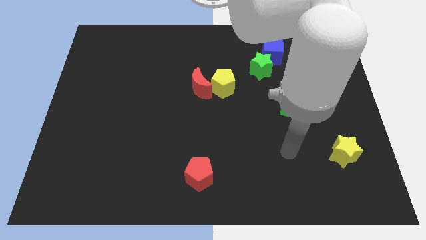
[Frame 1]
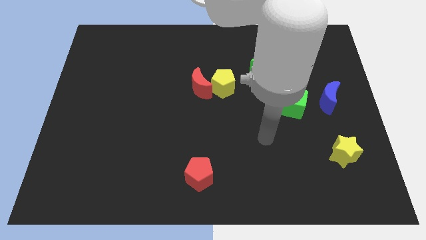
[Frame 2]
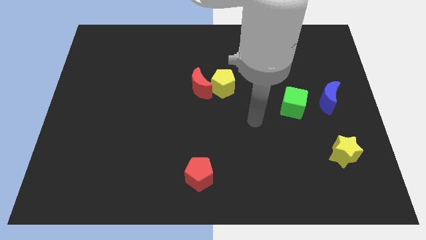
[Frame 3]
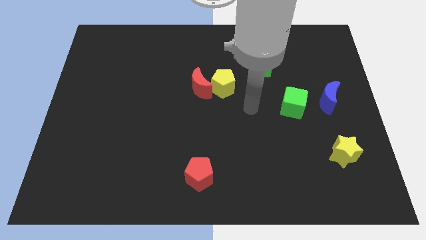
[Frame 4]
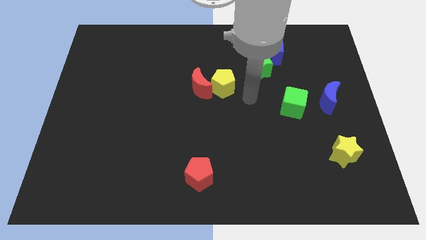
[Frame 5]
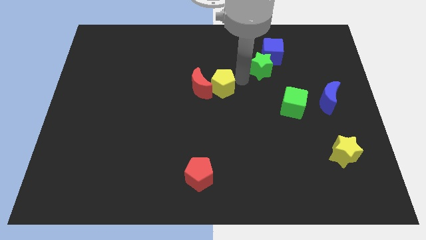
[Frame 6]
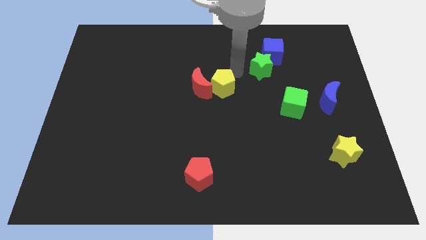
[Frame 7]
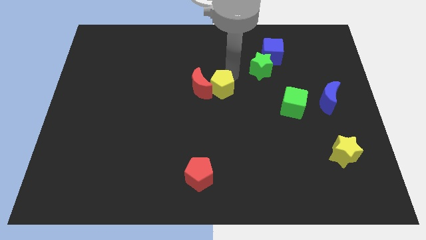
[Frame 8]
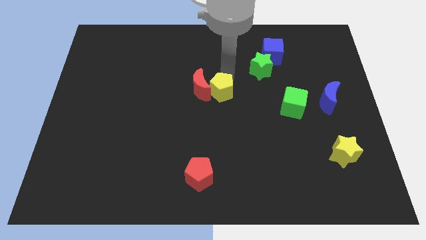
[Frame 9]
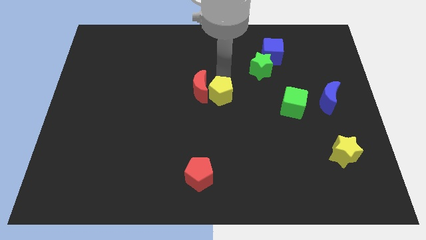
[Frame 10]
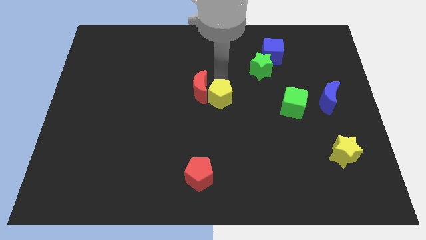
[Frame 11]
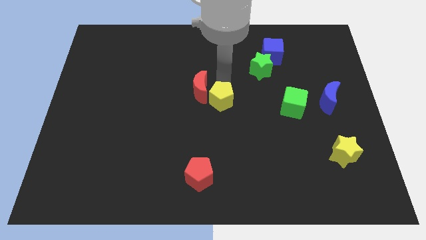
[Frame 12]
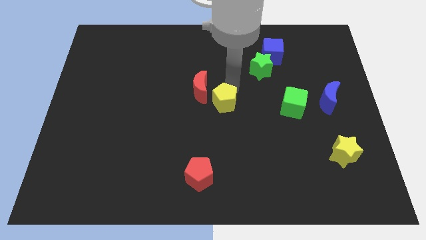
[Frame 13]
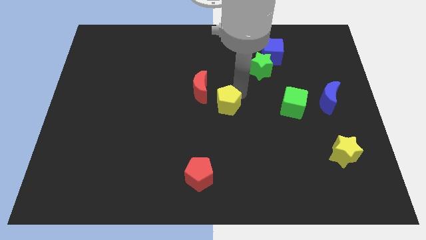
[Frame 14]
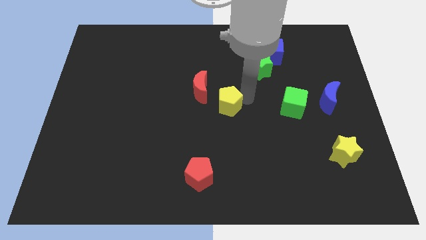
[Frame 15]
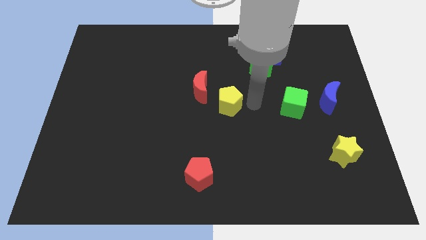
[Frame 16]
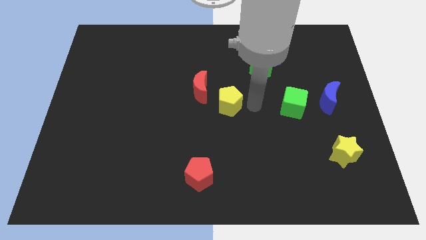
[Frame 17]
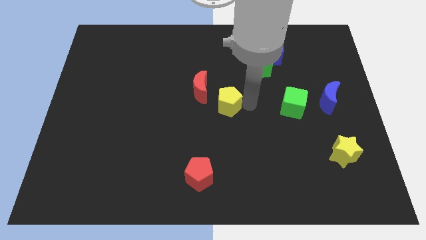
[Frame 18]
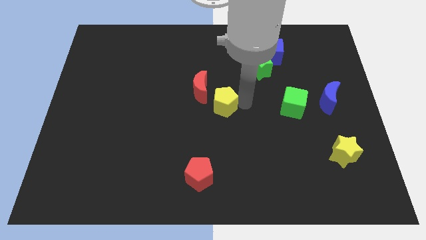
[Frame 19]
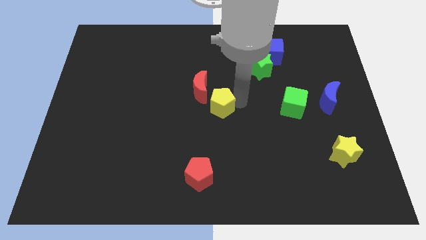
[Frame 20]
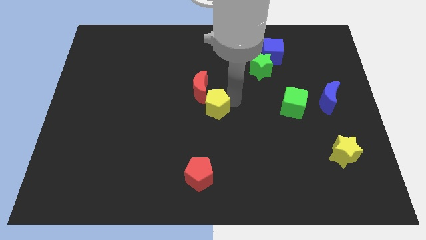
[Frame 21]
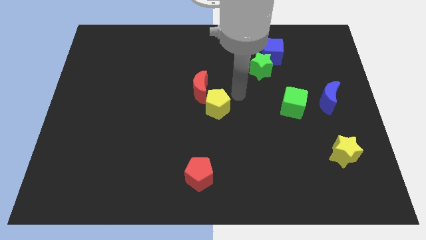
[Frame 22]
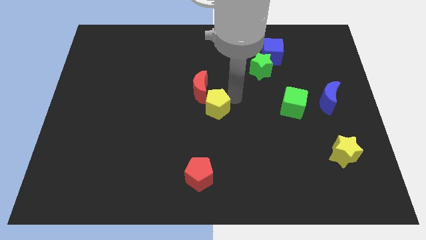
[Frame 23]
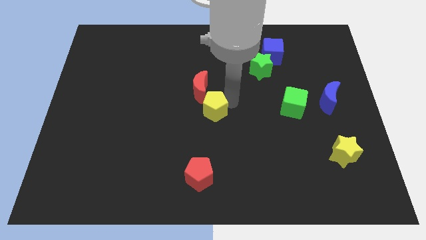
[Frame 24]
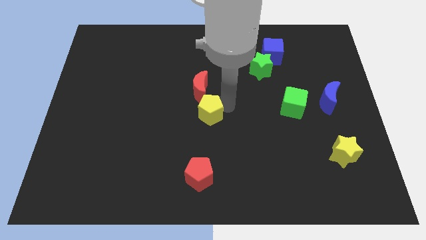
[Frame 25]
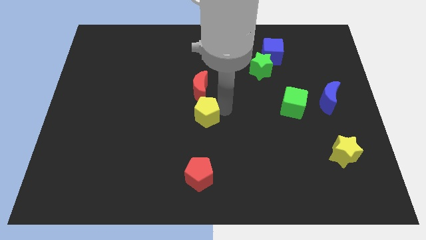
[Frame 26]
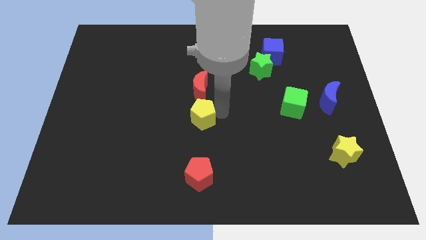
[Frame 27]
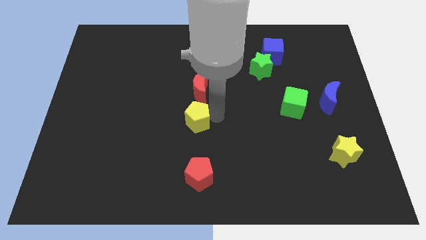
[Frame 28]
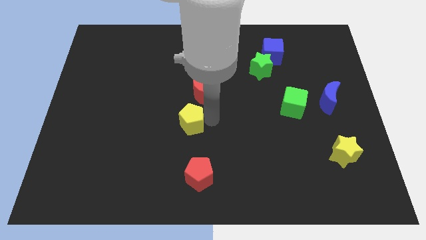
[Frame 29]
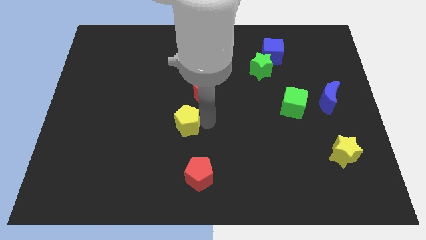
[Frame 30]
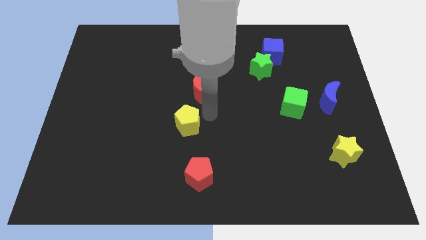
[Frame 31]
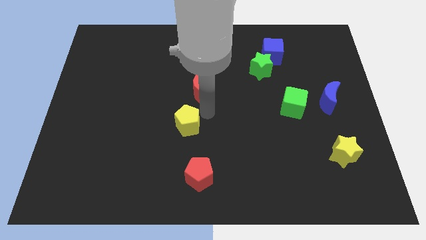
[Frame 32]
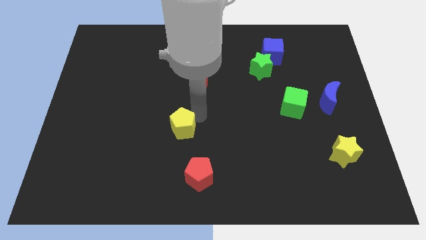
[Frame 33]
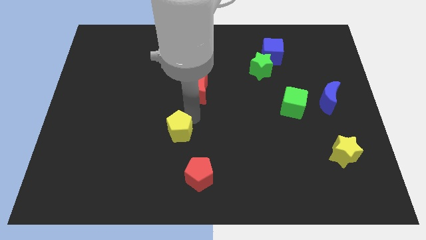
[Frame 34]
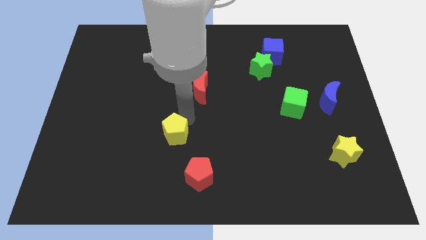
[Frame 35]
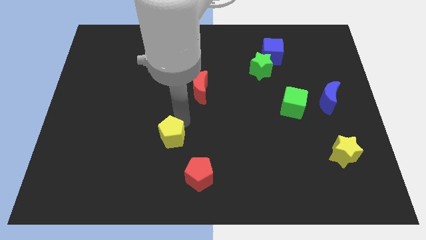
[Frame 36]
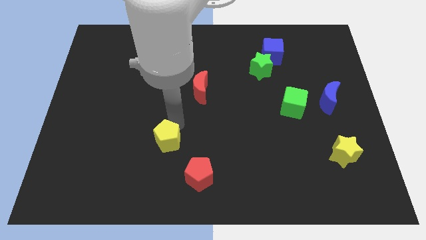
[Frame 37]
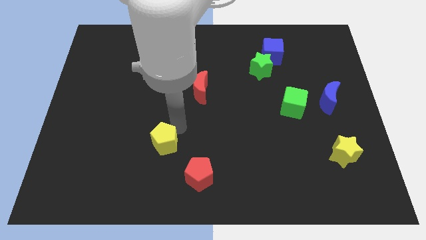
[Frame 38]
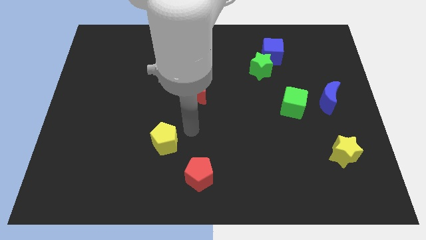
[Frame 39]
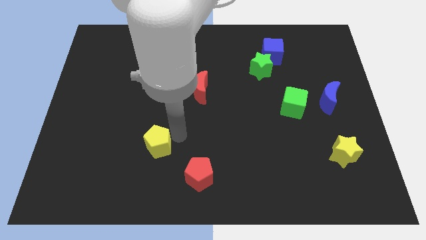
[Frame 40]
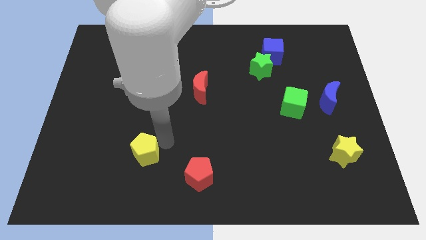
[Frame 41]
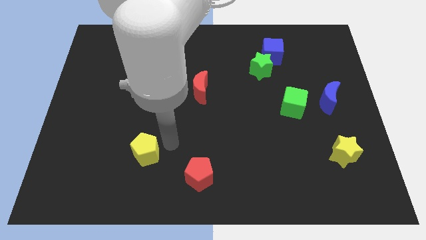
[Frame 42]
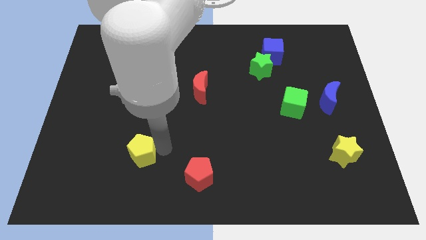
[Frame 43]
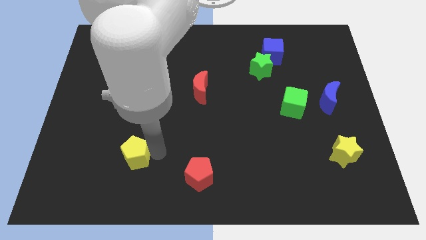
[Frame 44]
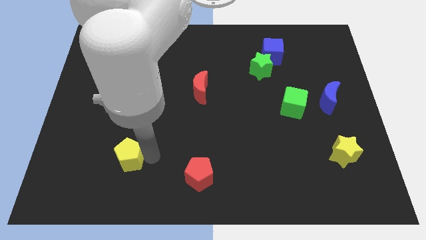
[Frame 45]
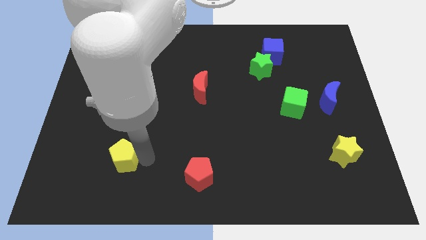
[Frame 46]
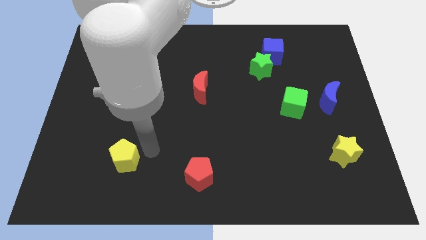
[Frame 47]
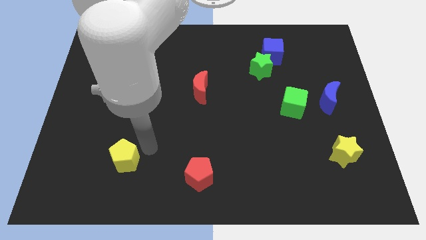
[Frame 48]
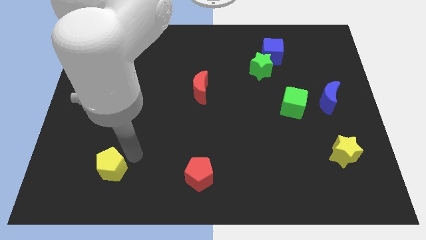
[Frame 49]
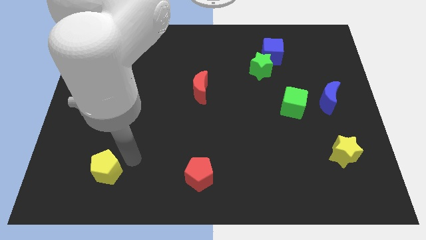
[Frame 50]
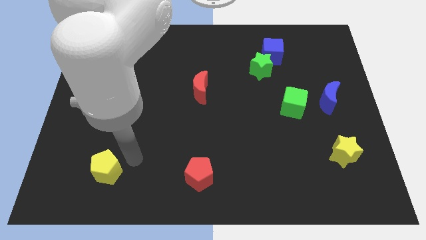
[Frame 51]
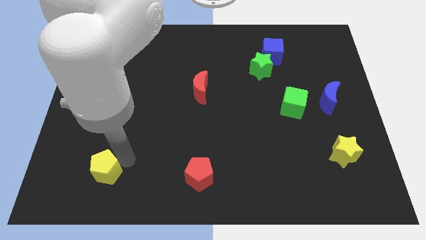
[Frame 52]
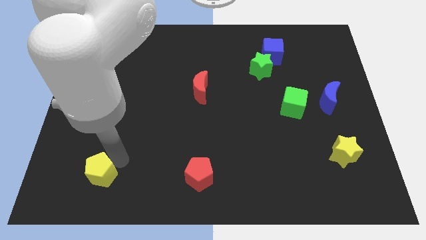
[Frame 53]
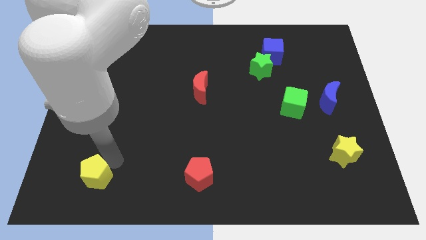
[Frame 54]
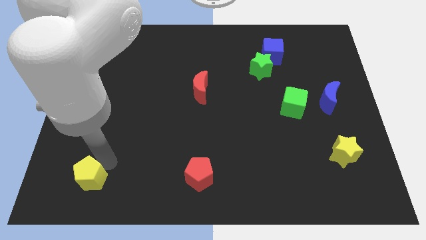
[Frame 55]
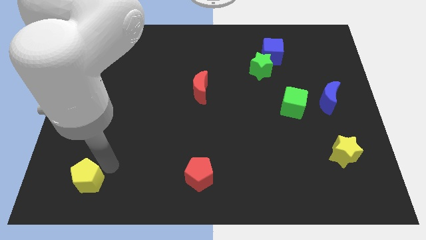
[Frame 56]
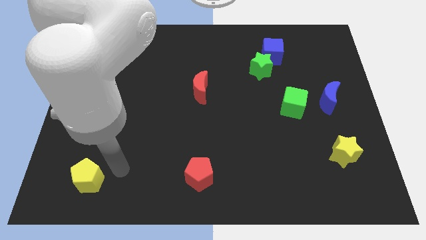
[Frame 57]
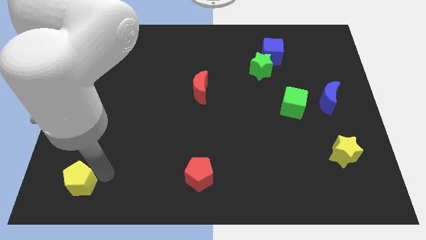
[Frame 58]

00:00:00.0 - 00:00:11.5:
move the yellow pentagon to the lower left corner

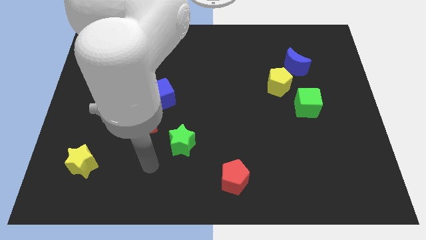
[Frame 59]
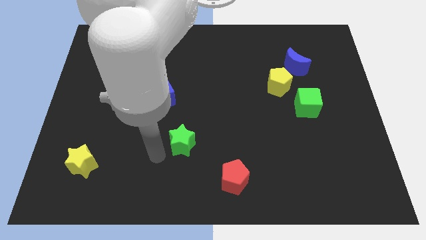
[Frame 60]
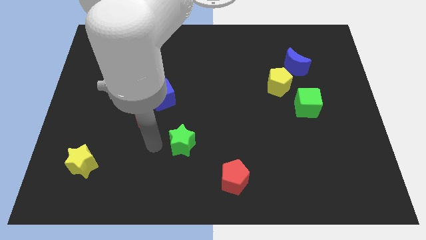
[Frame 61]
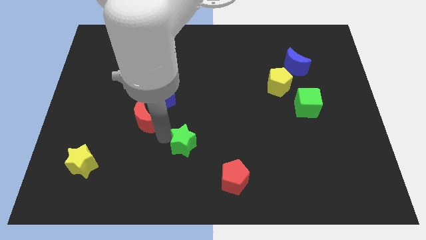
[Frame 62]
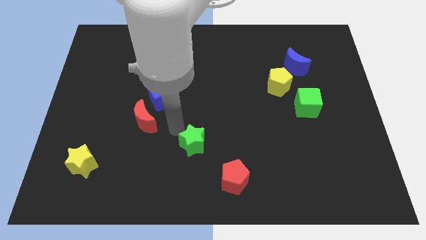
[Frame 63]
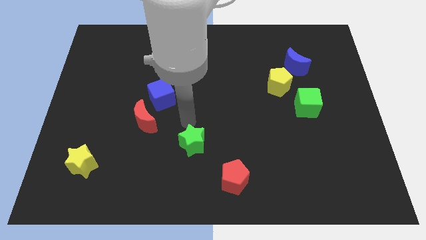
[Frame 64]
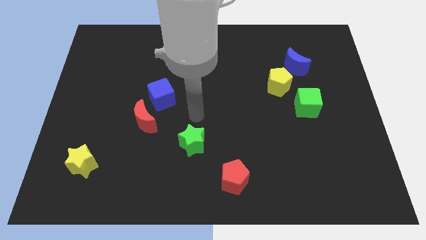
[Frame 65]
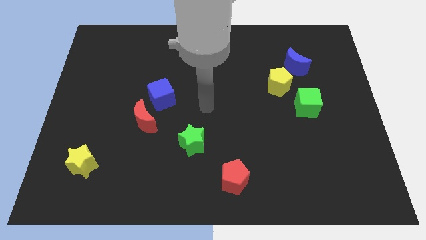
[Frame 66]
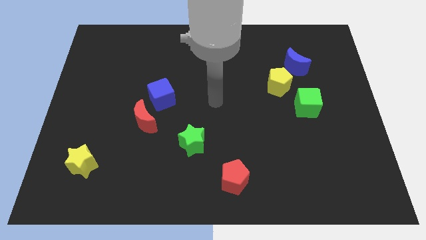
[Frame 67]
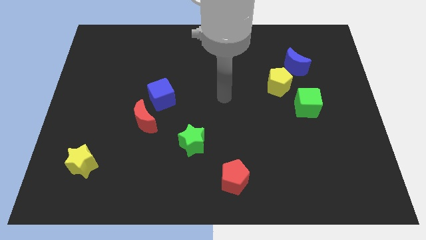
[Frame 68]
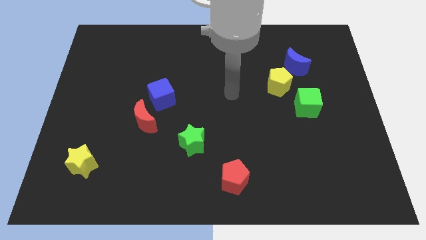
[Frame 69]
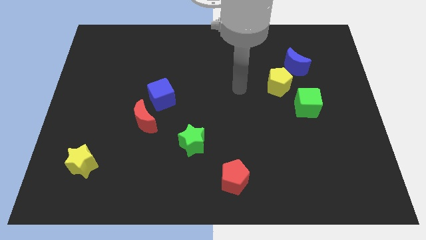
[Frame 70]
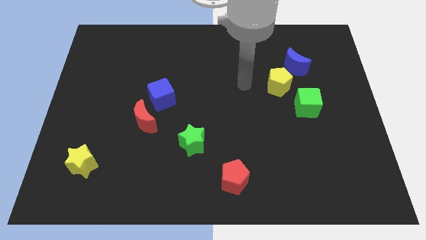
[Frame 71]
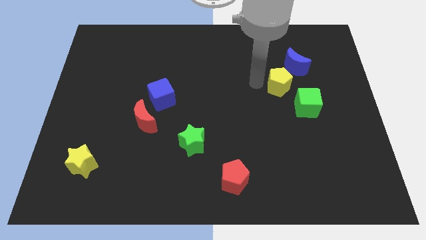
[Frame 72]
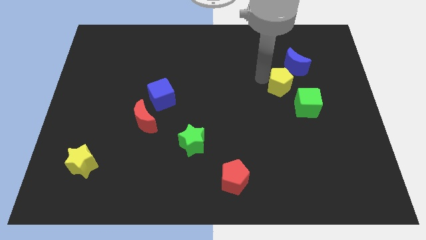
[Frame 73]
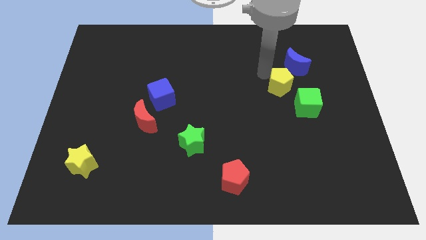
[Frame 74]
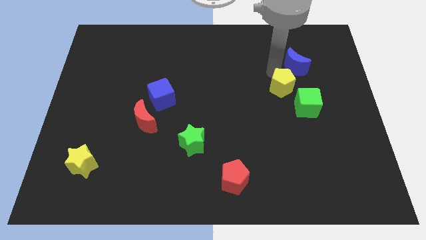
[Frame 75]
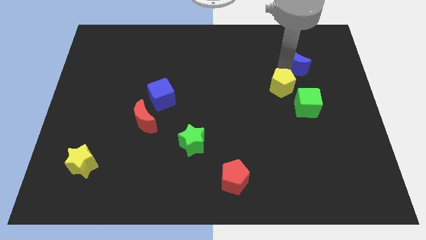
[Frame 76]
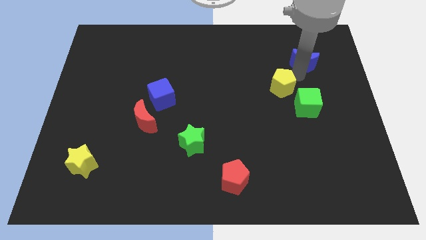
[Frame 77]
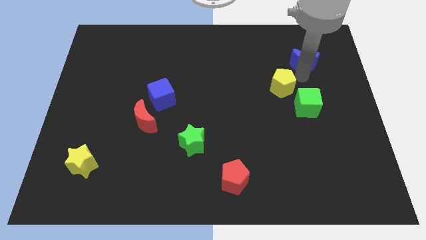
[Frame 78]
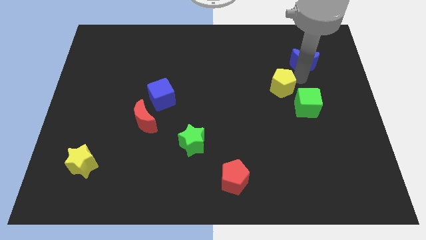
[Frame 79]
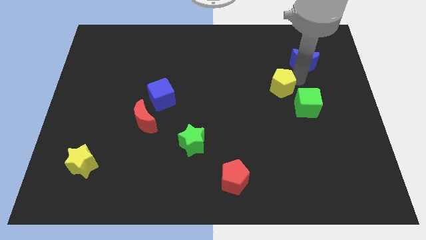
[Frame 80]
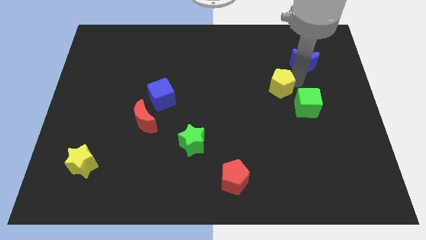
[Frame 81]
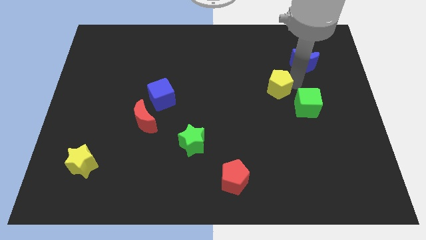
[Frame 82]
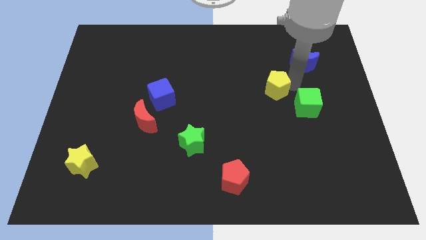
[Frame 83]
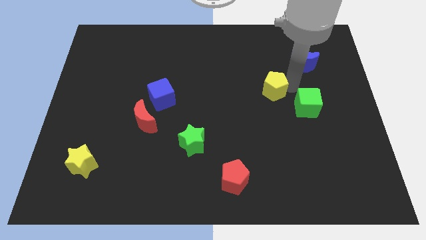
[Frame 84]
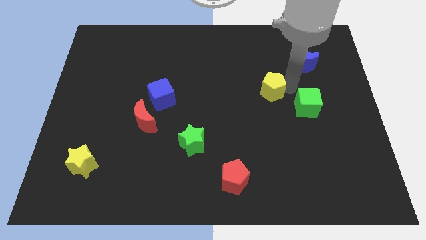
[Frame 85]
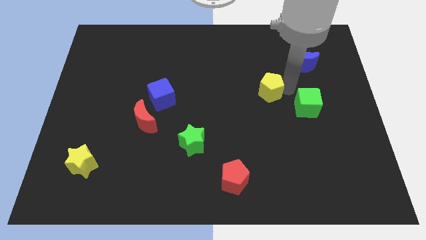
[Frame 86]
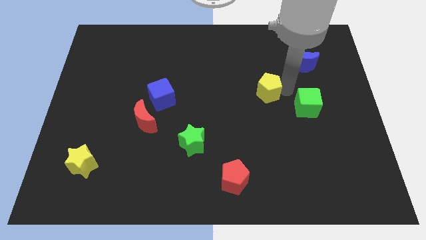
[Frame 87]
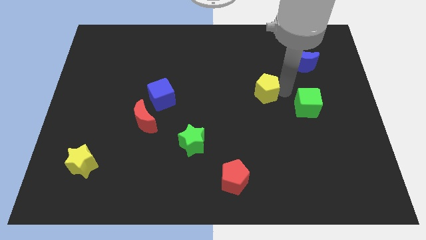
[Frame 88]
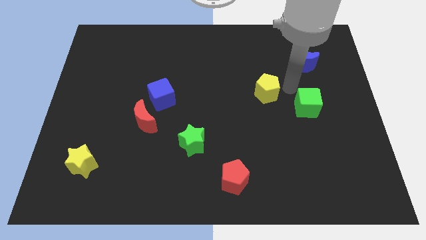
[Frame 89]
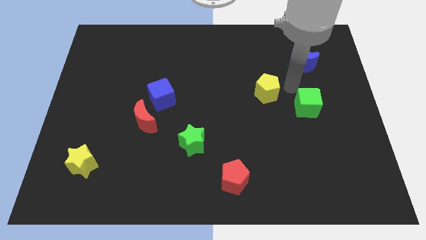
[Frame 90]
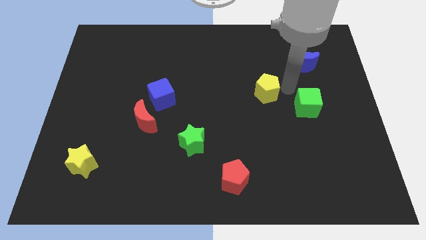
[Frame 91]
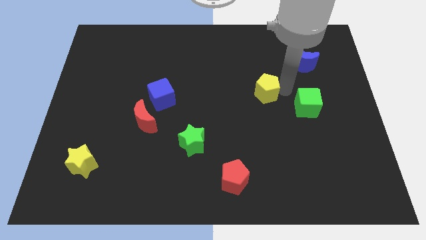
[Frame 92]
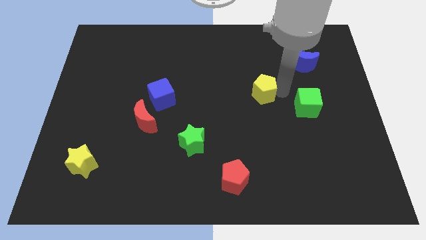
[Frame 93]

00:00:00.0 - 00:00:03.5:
move the yellow pentagon to the middle
